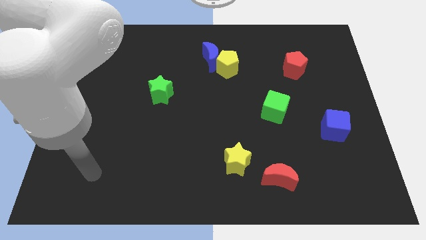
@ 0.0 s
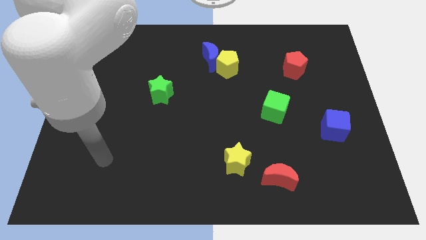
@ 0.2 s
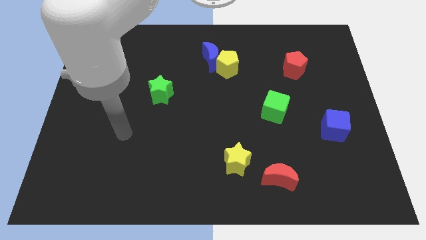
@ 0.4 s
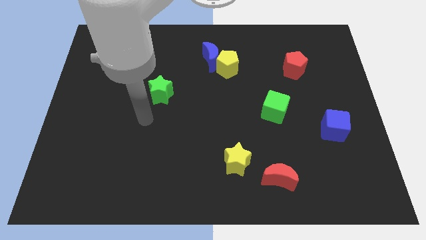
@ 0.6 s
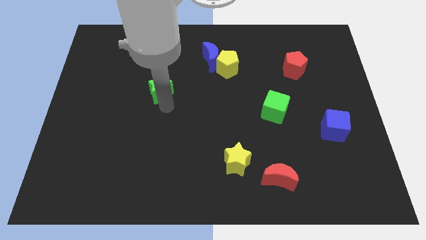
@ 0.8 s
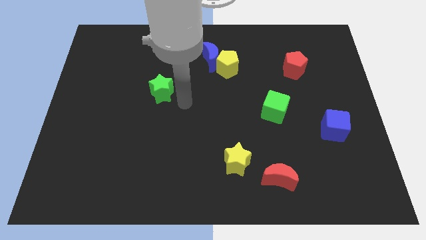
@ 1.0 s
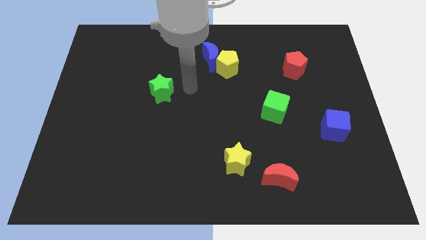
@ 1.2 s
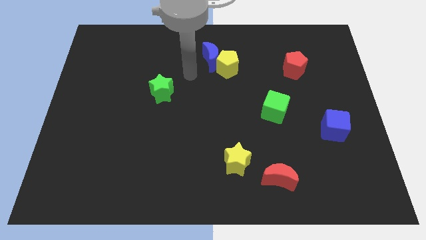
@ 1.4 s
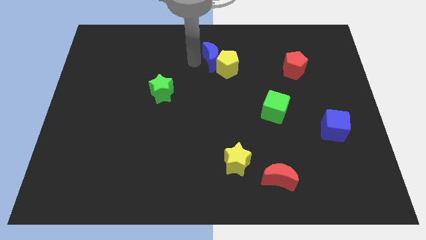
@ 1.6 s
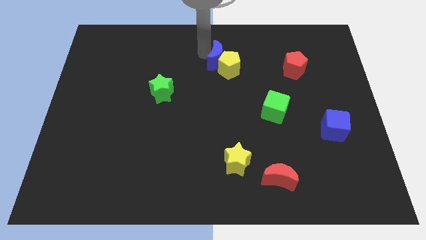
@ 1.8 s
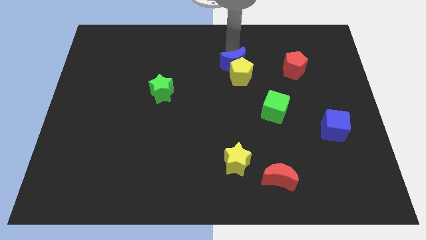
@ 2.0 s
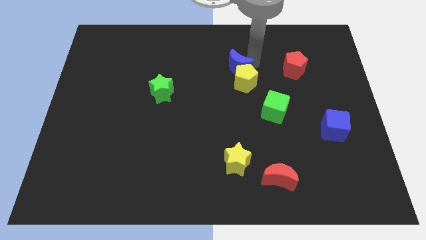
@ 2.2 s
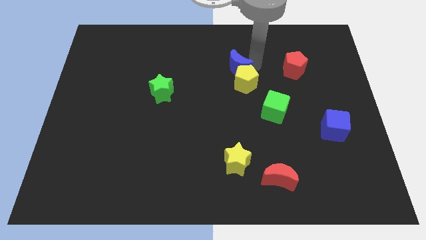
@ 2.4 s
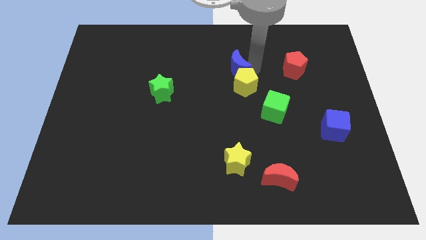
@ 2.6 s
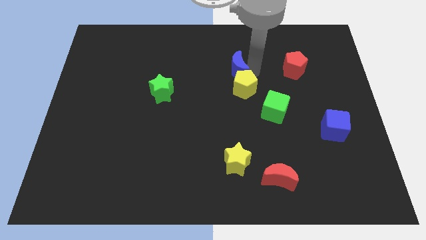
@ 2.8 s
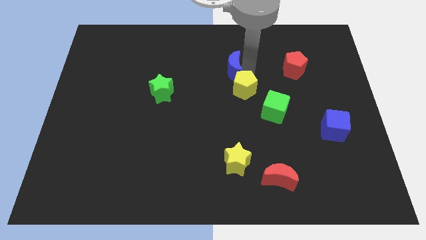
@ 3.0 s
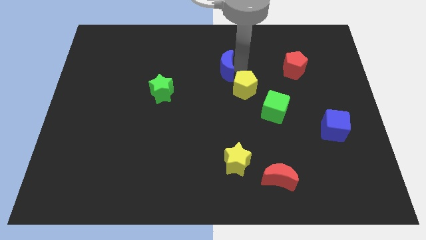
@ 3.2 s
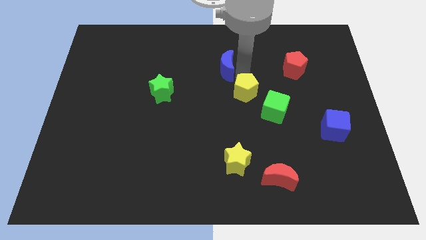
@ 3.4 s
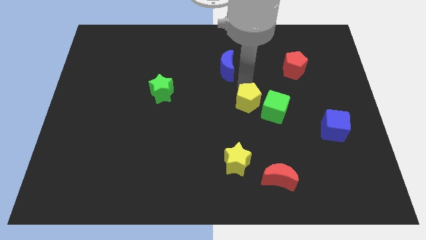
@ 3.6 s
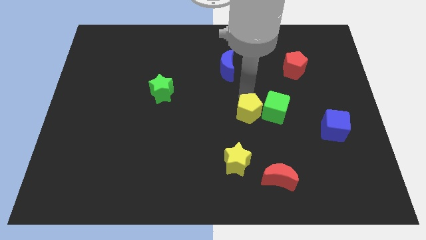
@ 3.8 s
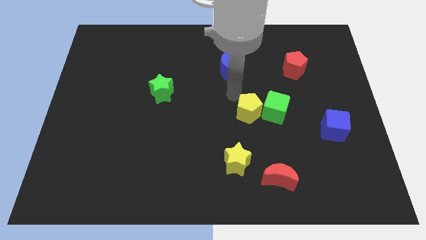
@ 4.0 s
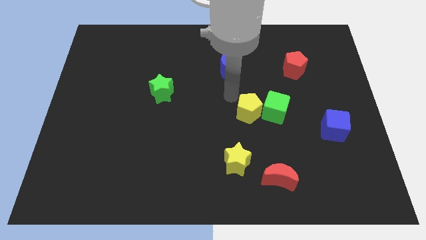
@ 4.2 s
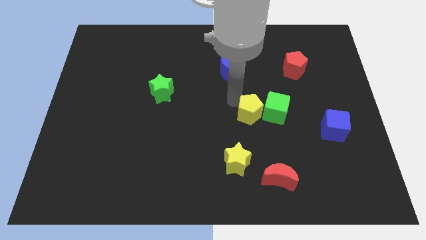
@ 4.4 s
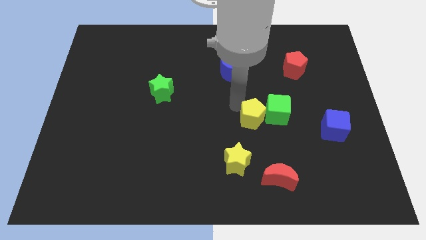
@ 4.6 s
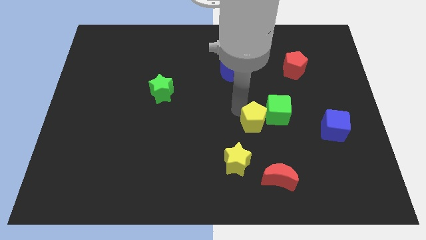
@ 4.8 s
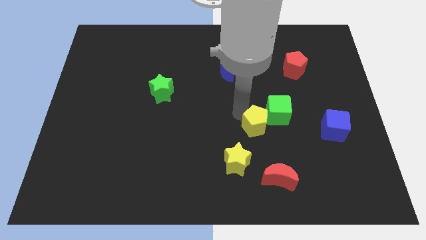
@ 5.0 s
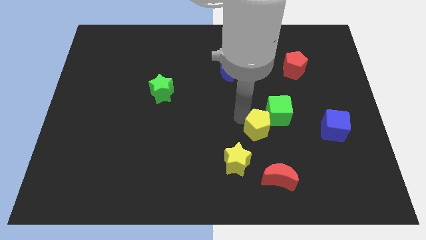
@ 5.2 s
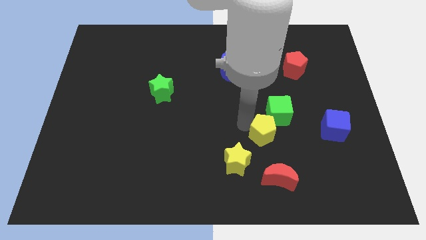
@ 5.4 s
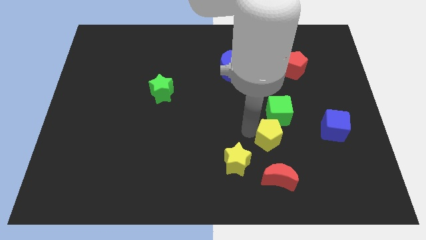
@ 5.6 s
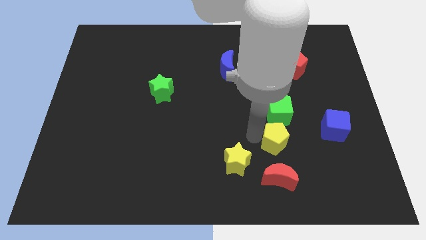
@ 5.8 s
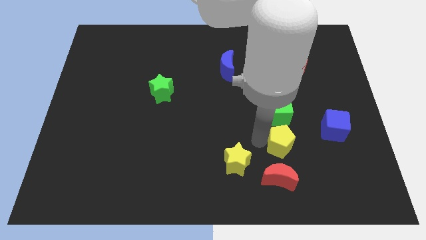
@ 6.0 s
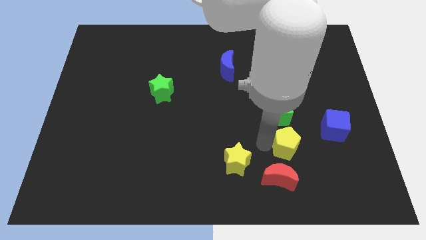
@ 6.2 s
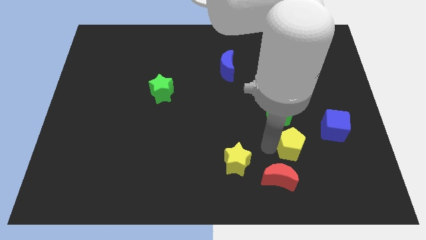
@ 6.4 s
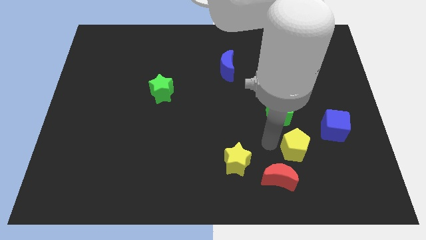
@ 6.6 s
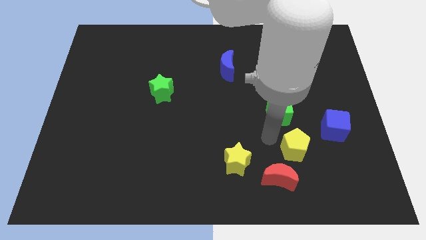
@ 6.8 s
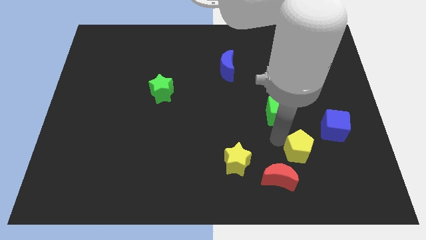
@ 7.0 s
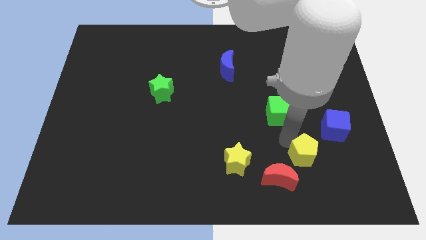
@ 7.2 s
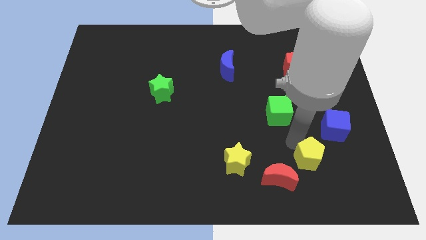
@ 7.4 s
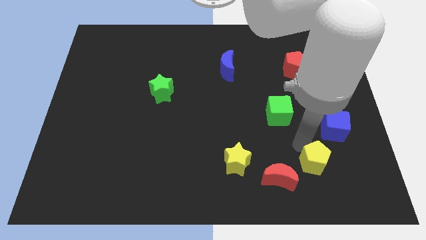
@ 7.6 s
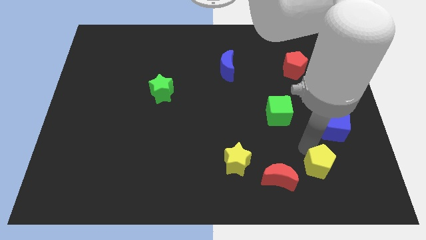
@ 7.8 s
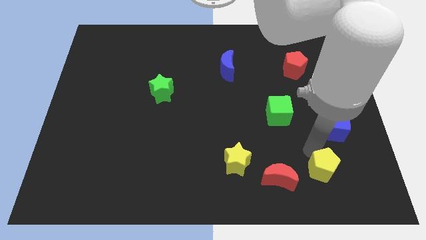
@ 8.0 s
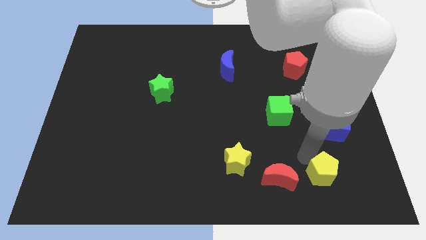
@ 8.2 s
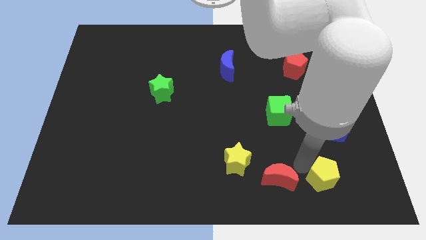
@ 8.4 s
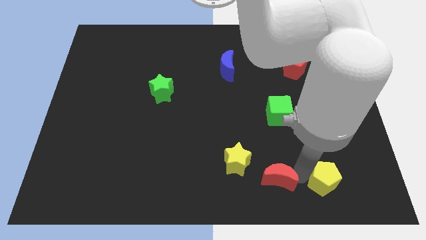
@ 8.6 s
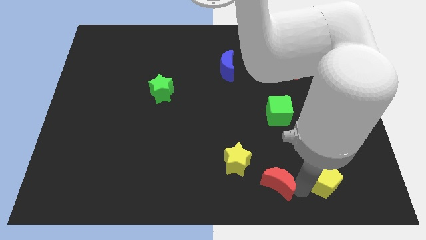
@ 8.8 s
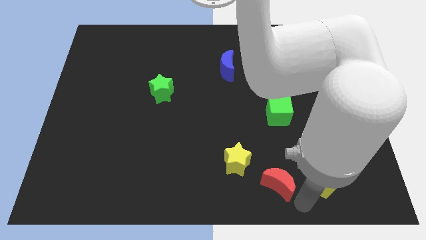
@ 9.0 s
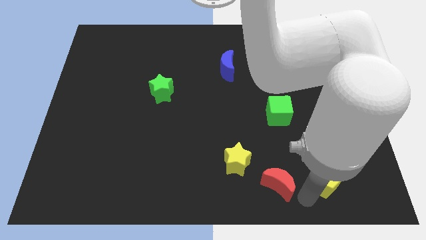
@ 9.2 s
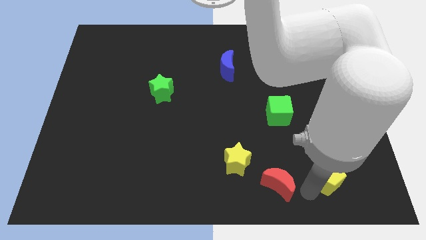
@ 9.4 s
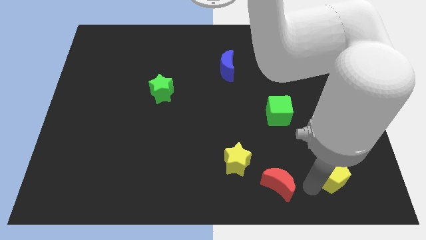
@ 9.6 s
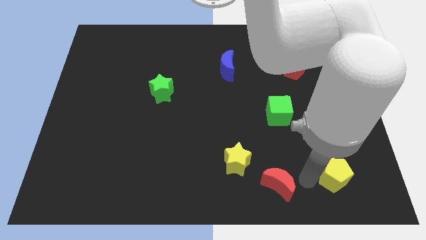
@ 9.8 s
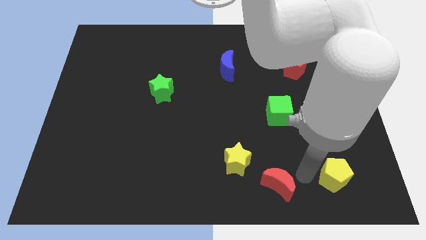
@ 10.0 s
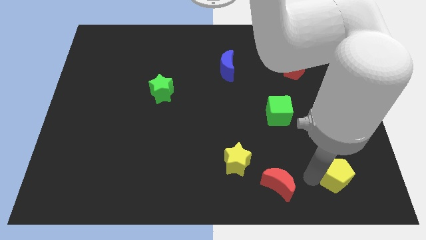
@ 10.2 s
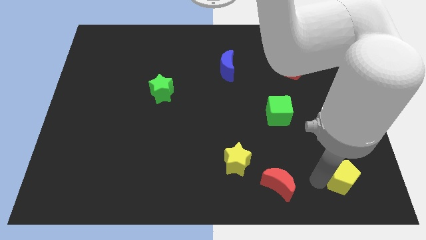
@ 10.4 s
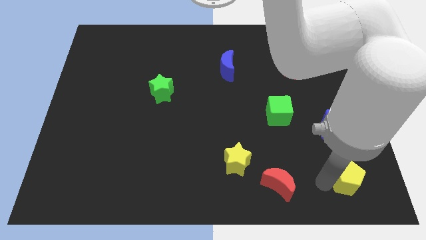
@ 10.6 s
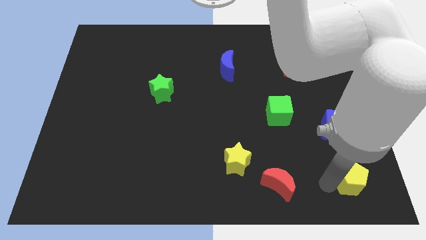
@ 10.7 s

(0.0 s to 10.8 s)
put the yellow pentagon to the lower right corner
